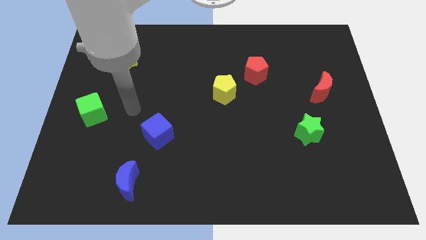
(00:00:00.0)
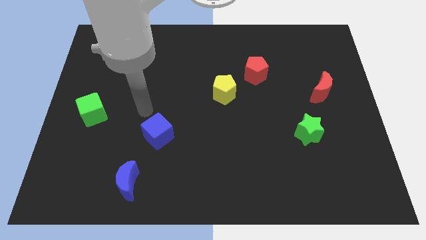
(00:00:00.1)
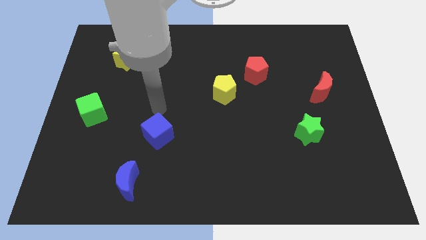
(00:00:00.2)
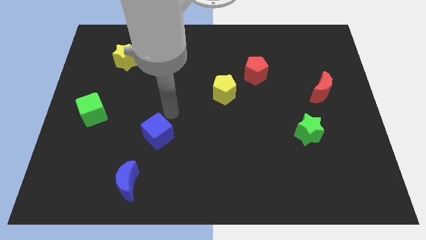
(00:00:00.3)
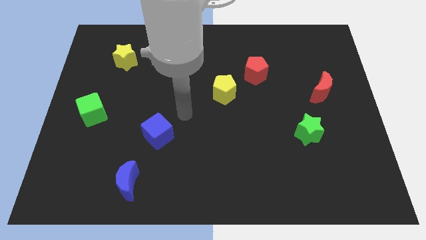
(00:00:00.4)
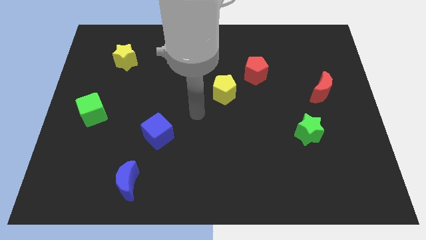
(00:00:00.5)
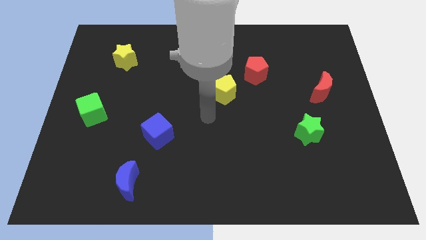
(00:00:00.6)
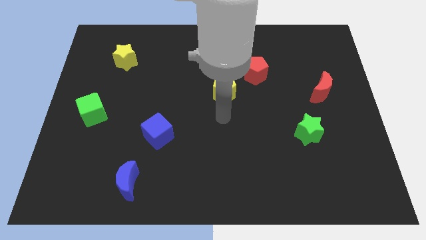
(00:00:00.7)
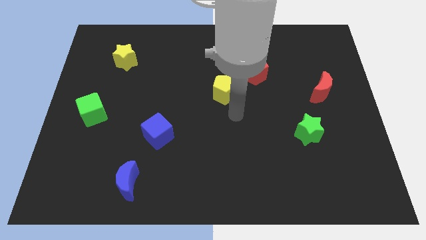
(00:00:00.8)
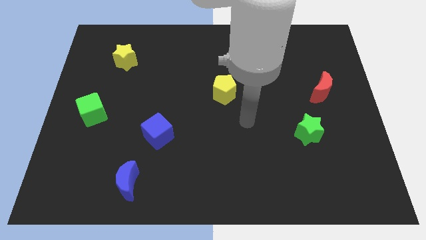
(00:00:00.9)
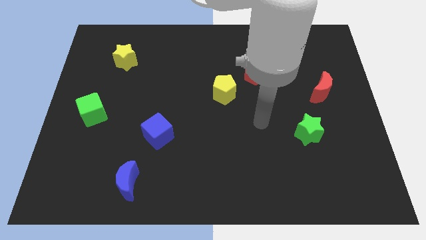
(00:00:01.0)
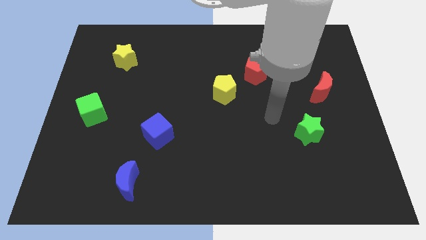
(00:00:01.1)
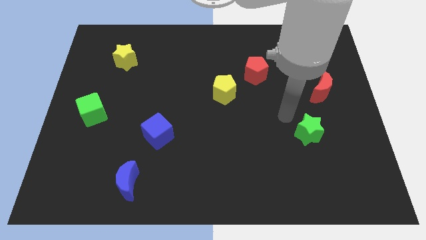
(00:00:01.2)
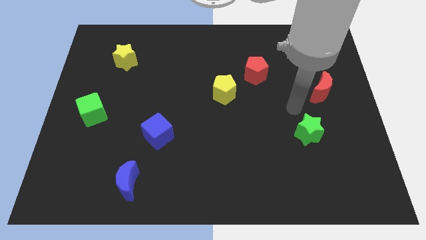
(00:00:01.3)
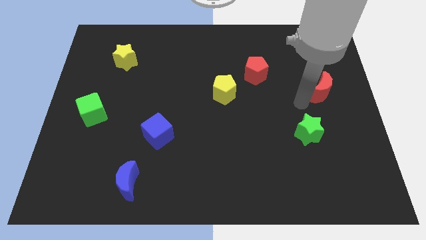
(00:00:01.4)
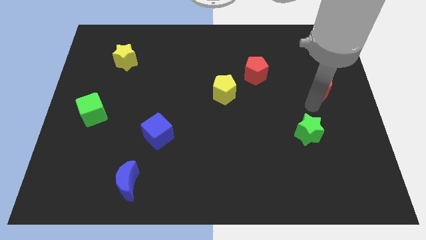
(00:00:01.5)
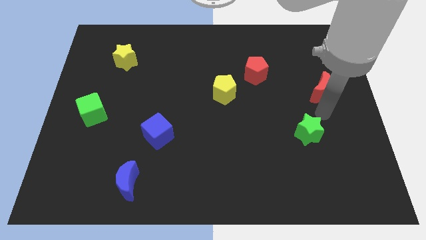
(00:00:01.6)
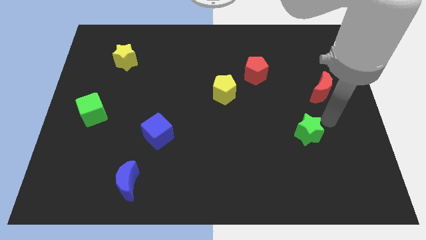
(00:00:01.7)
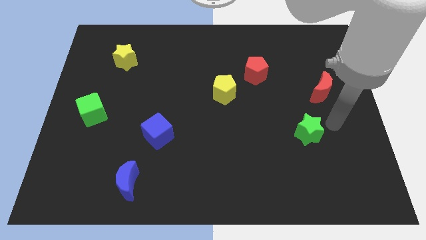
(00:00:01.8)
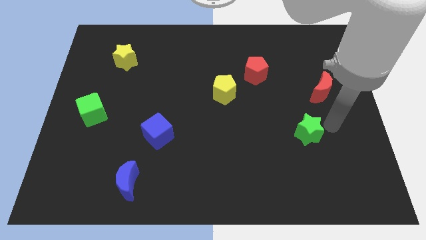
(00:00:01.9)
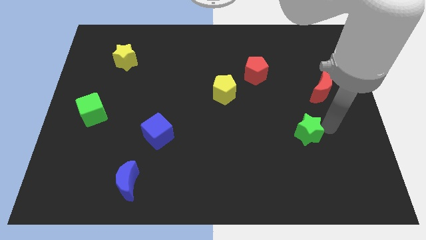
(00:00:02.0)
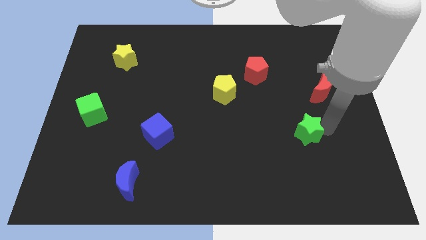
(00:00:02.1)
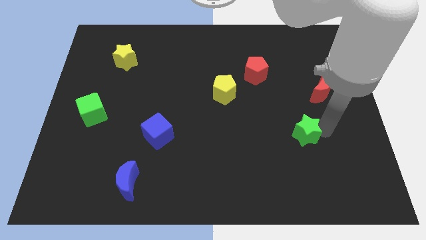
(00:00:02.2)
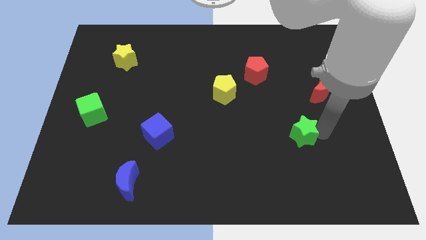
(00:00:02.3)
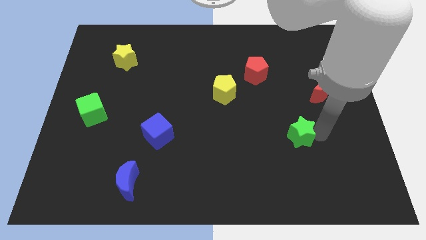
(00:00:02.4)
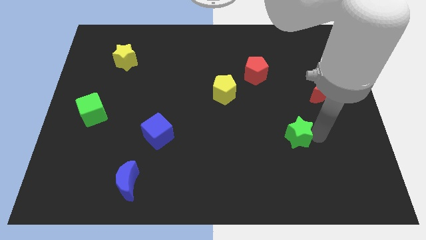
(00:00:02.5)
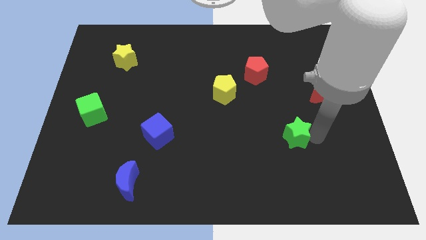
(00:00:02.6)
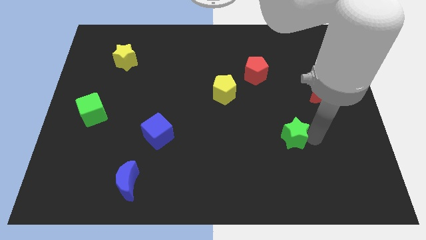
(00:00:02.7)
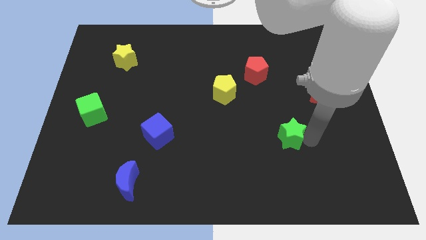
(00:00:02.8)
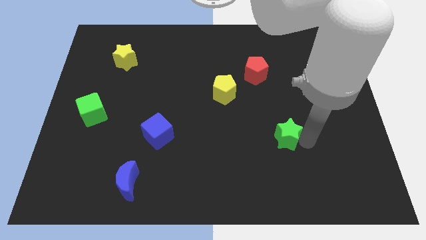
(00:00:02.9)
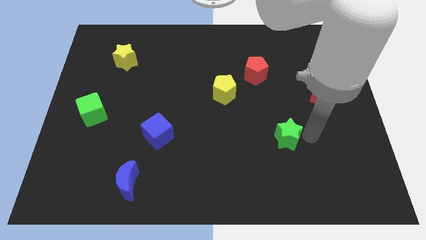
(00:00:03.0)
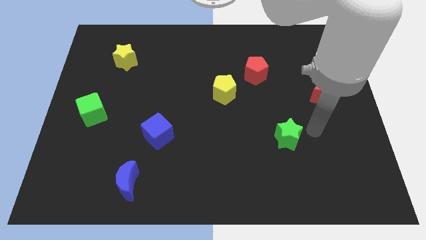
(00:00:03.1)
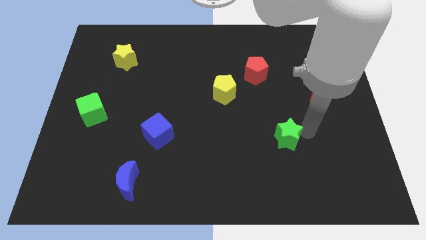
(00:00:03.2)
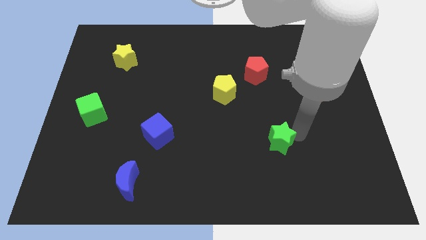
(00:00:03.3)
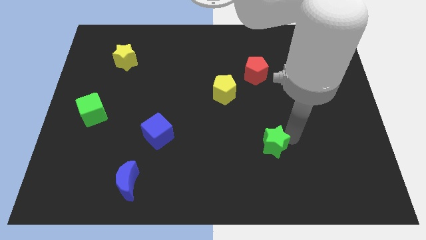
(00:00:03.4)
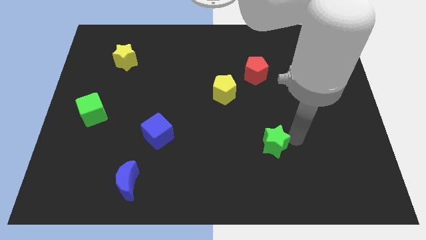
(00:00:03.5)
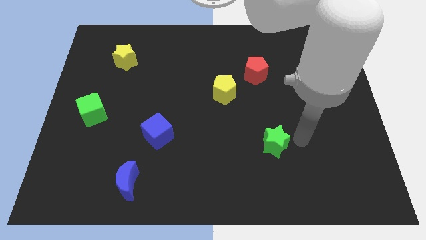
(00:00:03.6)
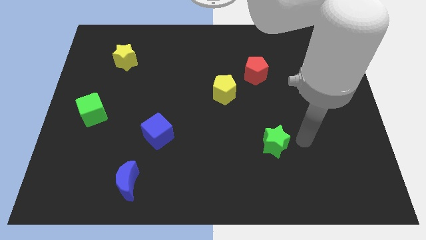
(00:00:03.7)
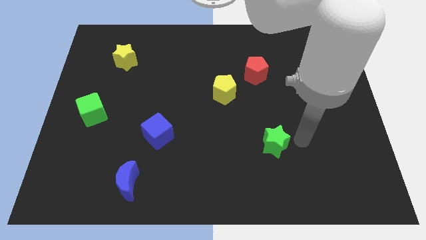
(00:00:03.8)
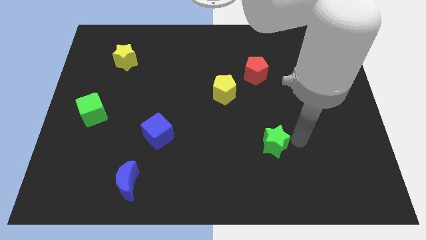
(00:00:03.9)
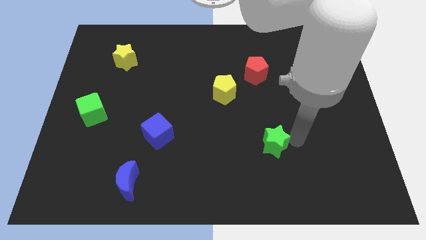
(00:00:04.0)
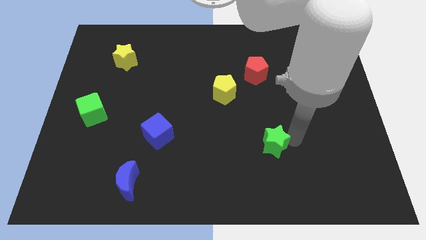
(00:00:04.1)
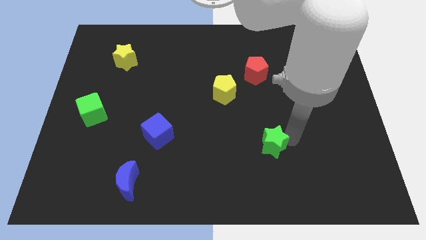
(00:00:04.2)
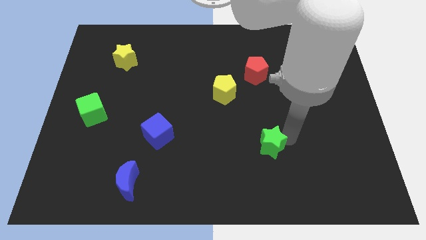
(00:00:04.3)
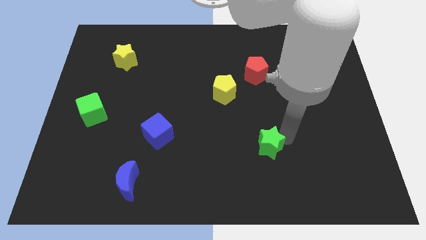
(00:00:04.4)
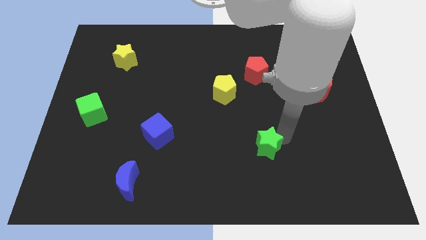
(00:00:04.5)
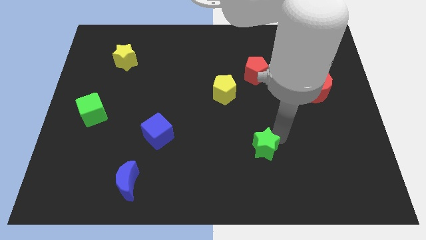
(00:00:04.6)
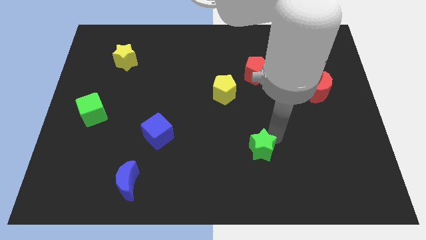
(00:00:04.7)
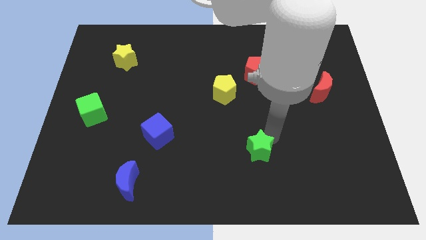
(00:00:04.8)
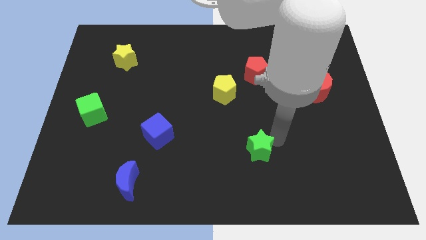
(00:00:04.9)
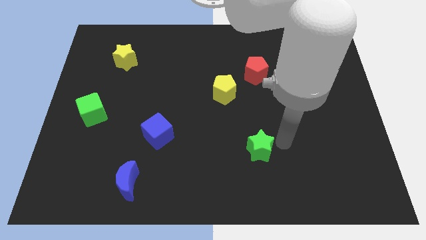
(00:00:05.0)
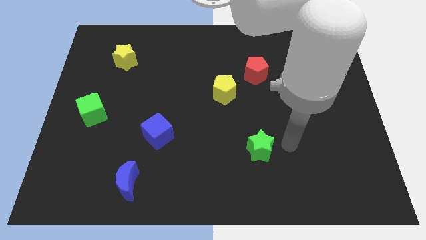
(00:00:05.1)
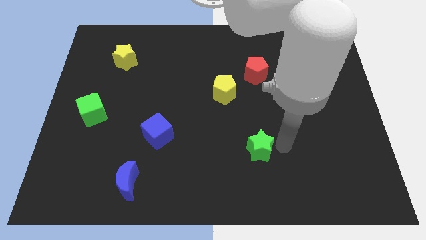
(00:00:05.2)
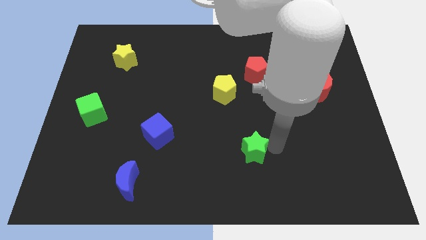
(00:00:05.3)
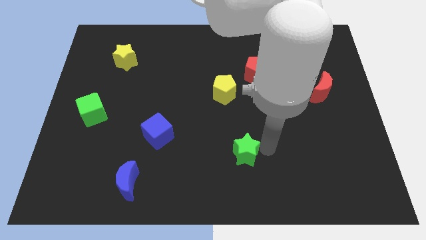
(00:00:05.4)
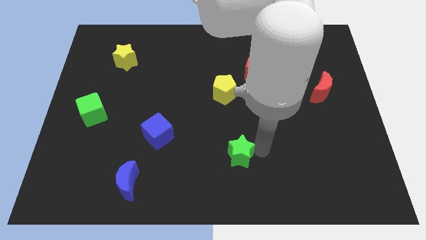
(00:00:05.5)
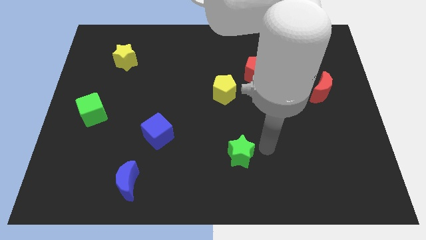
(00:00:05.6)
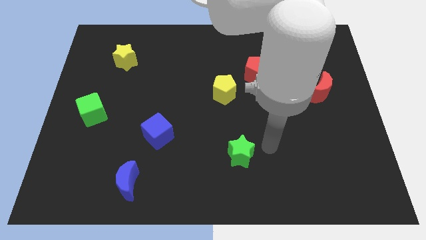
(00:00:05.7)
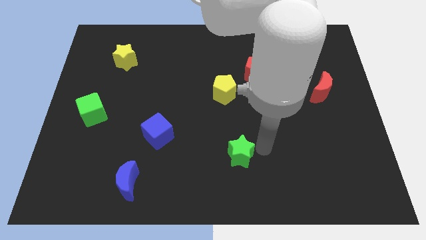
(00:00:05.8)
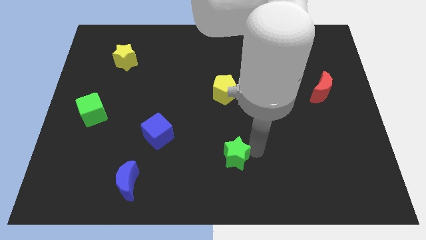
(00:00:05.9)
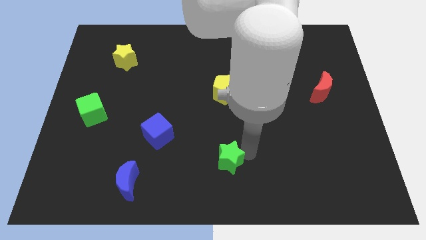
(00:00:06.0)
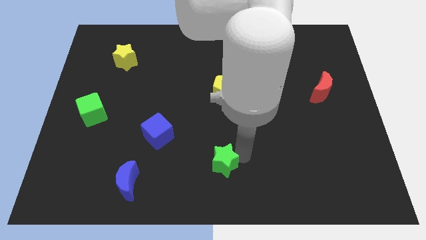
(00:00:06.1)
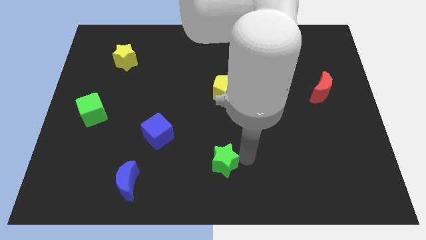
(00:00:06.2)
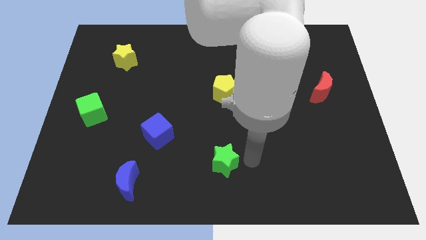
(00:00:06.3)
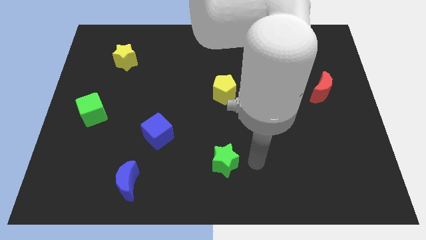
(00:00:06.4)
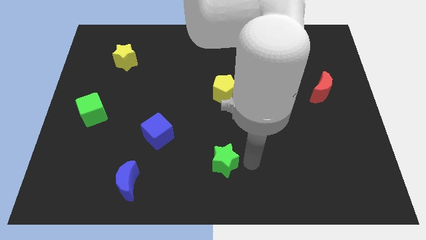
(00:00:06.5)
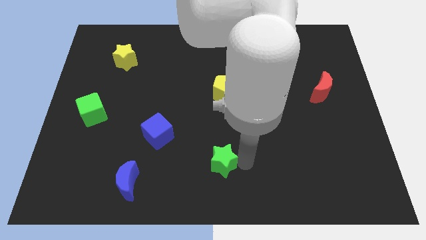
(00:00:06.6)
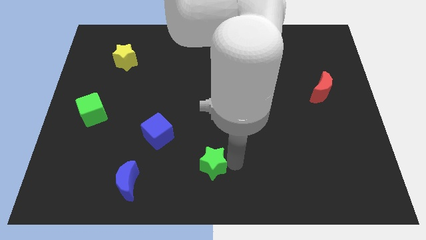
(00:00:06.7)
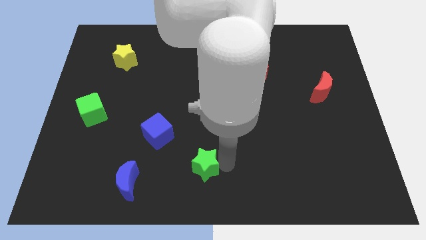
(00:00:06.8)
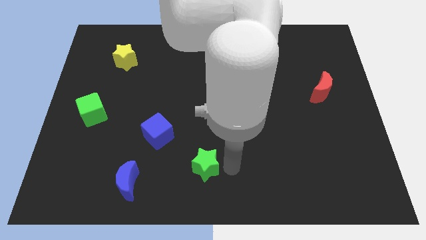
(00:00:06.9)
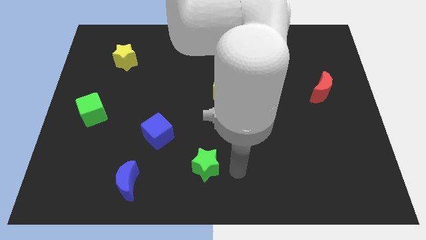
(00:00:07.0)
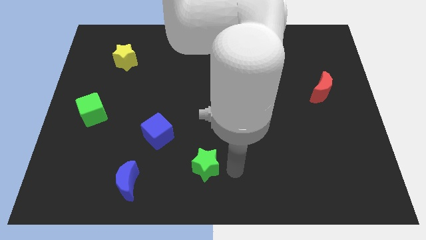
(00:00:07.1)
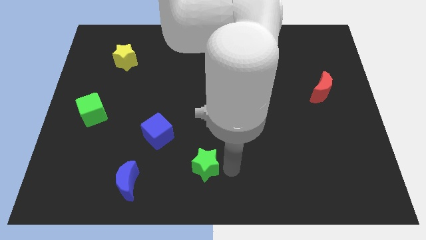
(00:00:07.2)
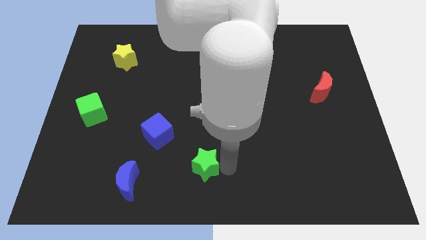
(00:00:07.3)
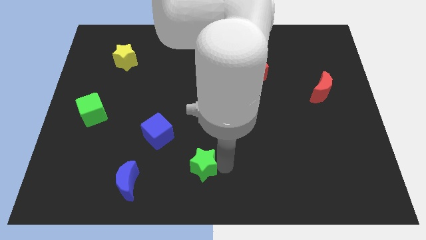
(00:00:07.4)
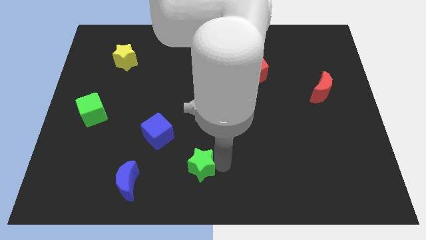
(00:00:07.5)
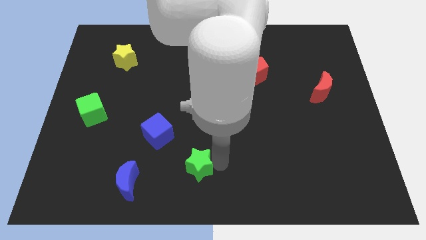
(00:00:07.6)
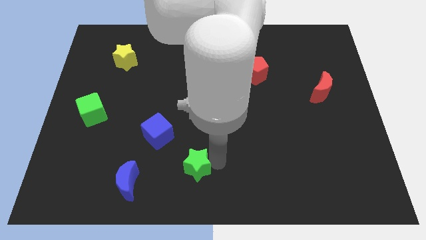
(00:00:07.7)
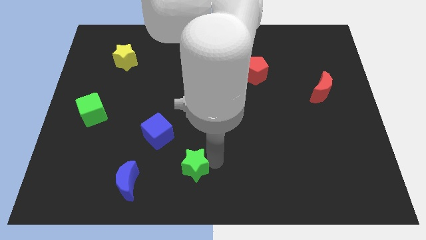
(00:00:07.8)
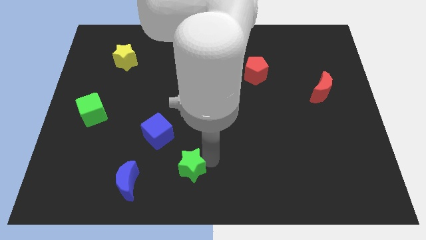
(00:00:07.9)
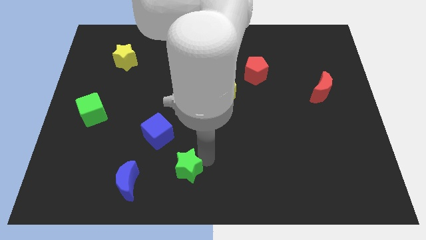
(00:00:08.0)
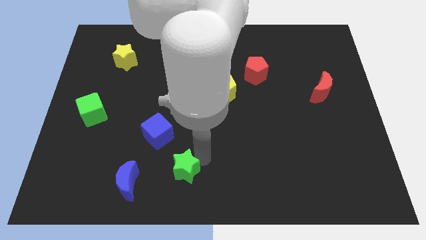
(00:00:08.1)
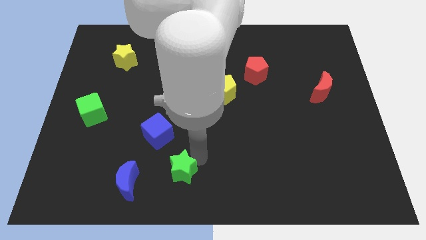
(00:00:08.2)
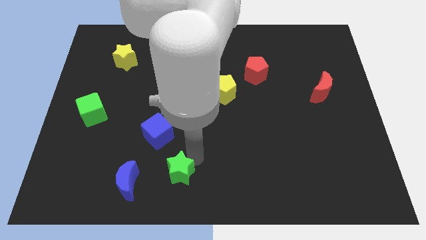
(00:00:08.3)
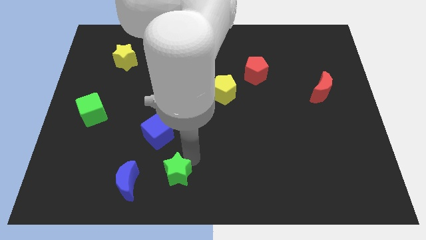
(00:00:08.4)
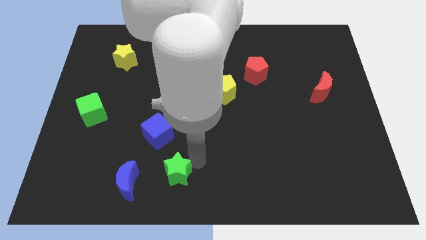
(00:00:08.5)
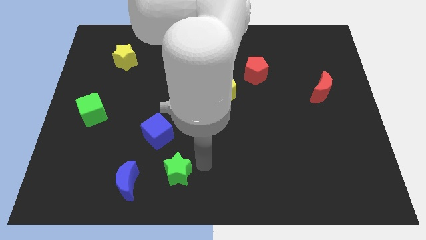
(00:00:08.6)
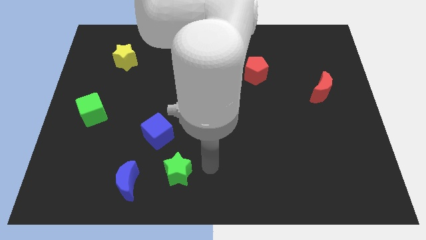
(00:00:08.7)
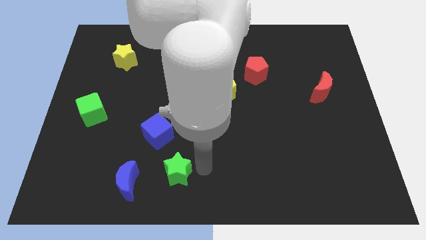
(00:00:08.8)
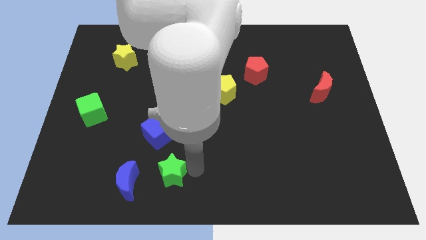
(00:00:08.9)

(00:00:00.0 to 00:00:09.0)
put the green star below the blue cube
